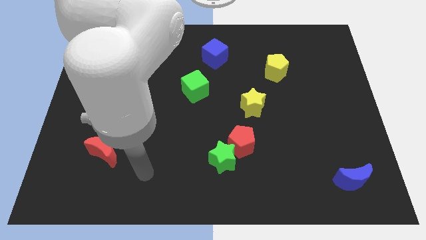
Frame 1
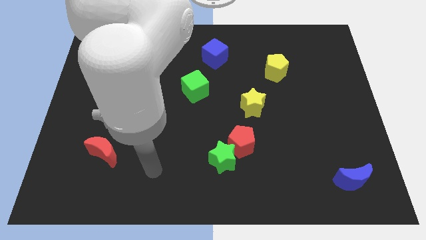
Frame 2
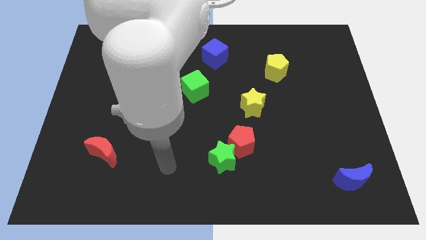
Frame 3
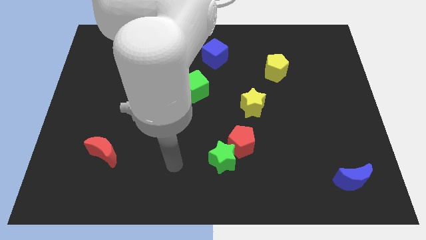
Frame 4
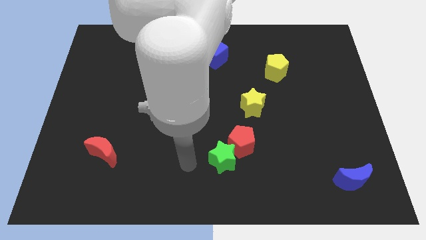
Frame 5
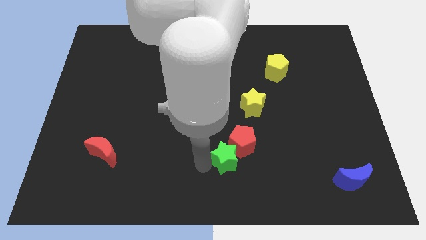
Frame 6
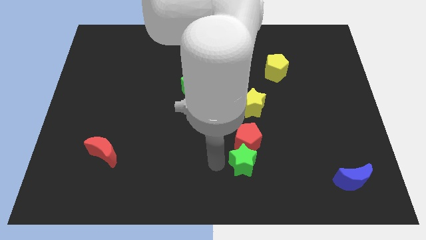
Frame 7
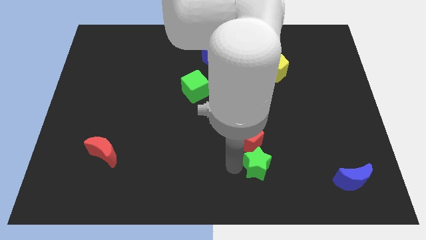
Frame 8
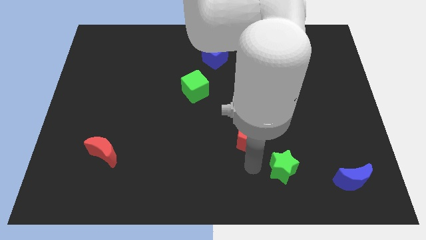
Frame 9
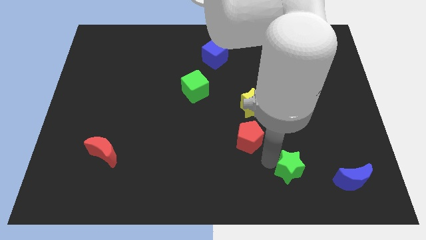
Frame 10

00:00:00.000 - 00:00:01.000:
separate the red pentagon from the green star

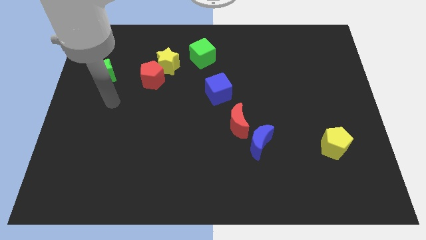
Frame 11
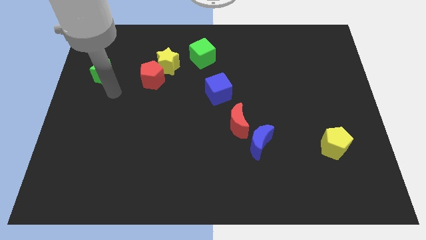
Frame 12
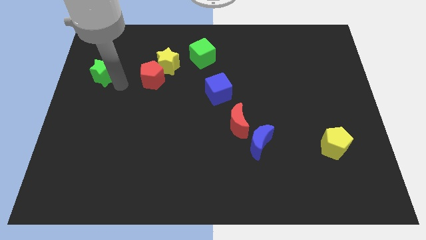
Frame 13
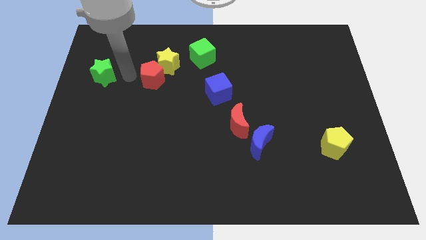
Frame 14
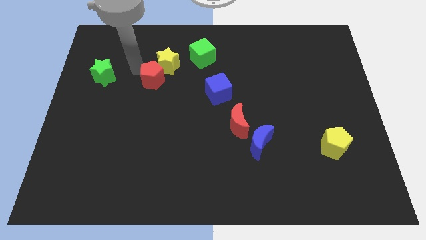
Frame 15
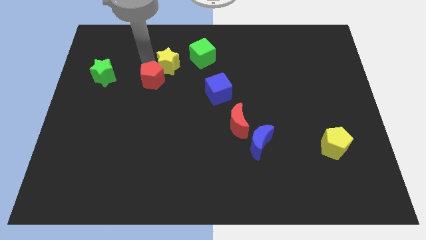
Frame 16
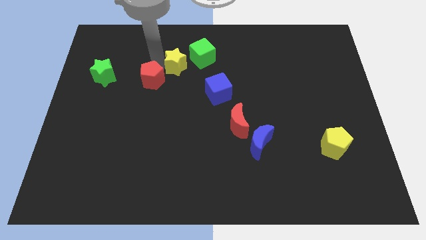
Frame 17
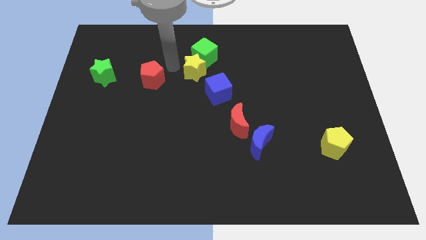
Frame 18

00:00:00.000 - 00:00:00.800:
pull the red pentagon apart from the yellow star

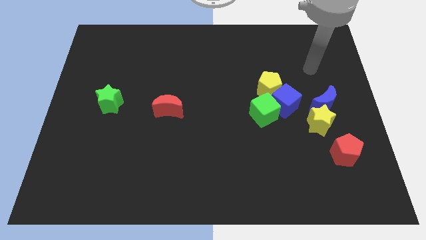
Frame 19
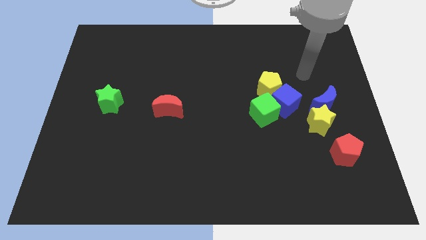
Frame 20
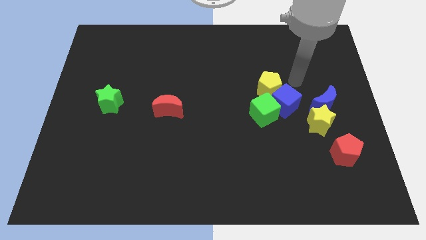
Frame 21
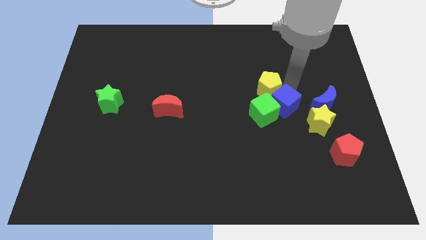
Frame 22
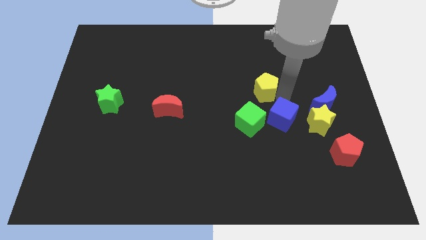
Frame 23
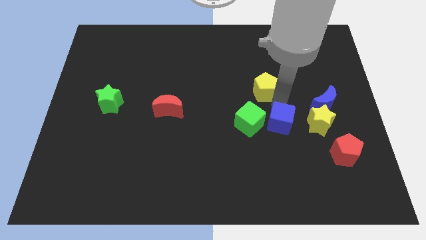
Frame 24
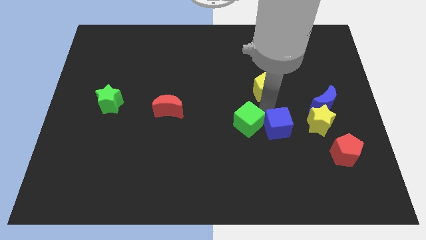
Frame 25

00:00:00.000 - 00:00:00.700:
pull the yellow pentagon apart from the blue cube and green cube

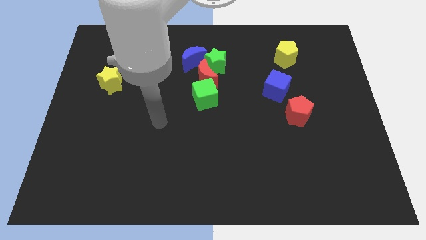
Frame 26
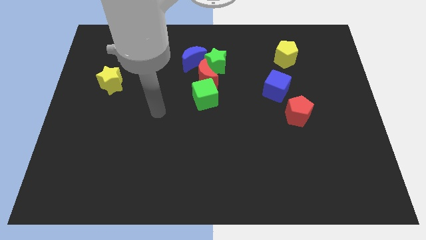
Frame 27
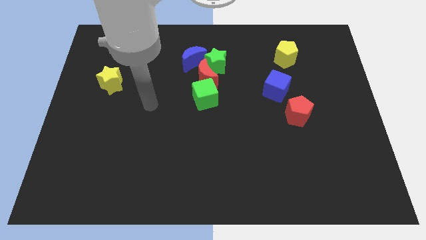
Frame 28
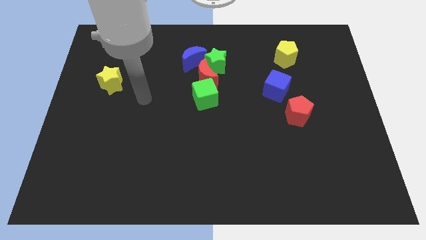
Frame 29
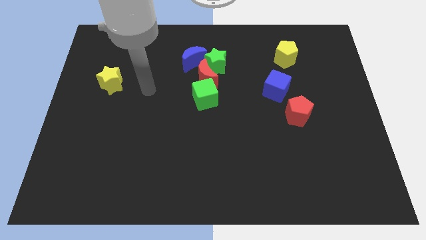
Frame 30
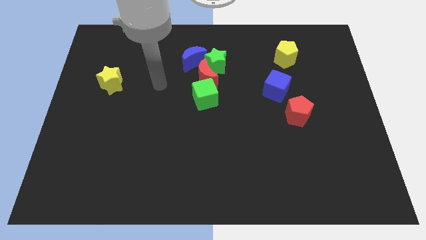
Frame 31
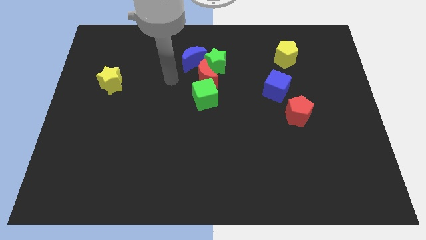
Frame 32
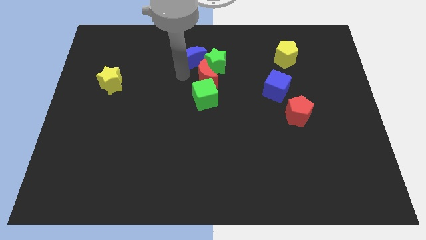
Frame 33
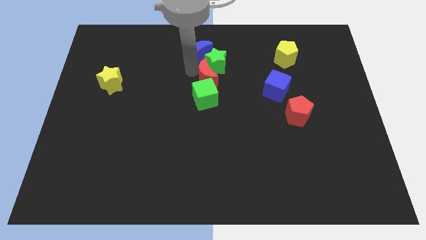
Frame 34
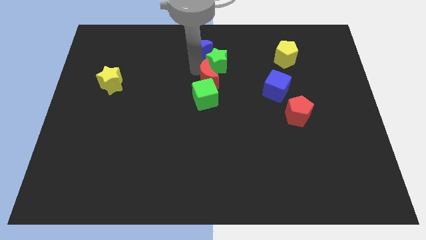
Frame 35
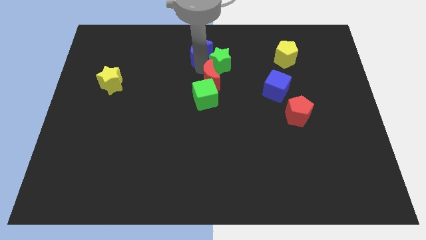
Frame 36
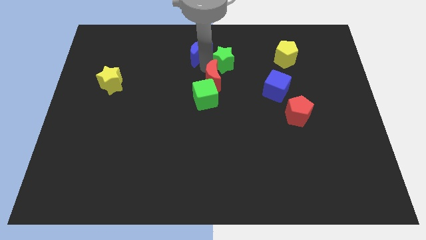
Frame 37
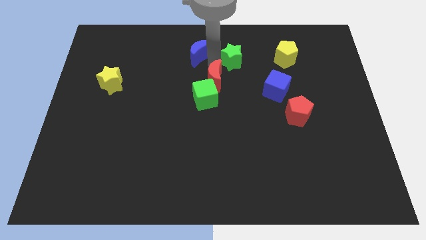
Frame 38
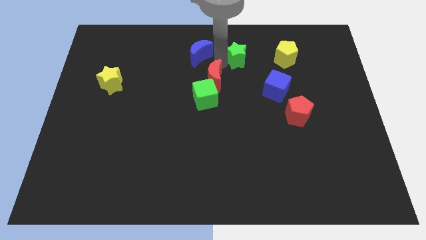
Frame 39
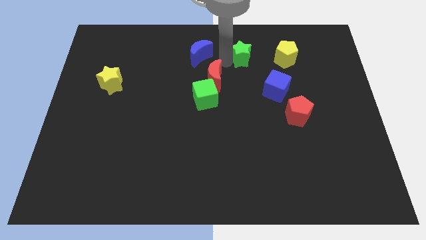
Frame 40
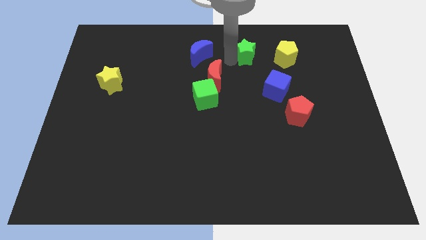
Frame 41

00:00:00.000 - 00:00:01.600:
separate the green star from the red moon and blue moon

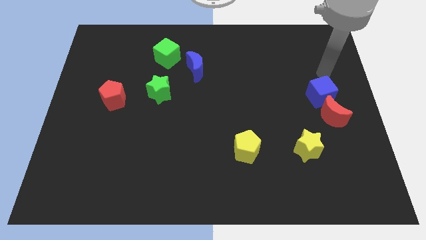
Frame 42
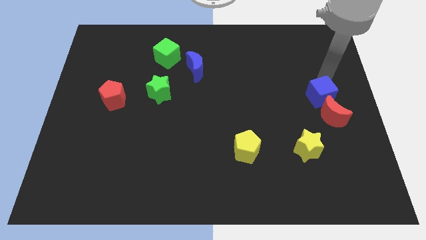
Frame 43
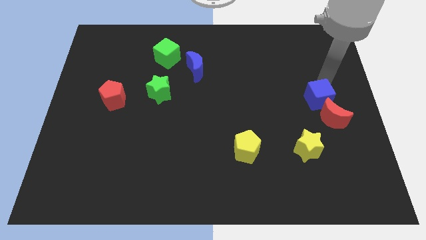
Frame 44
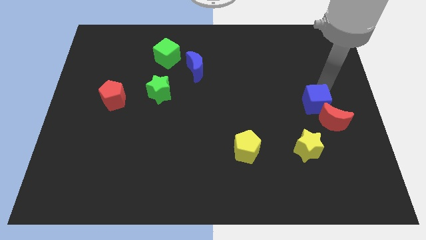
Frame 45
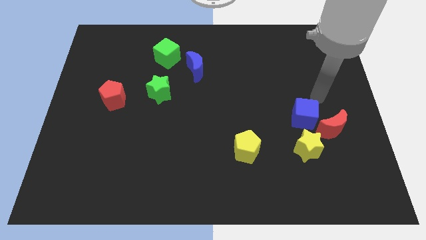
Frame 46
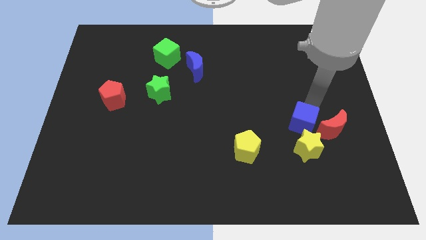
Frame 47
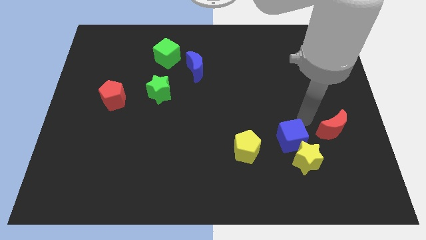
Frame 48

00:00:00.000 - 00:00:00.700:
pull the red moon apart from the blue cube

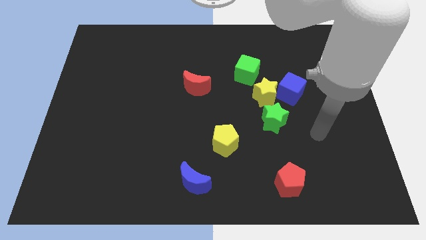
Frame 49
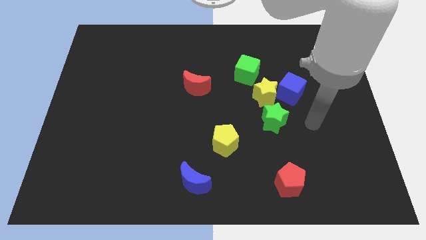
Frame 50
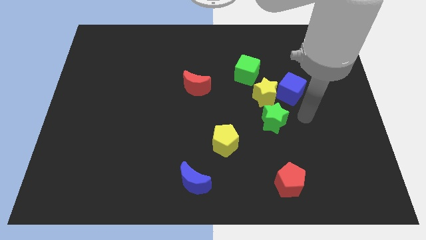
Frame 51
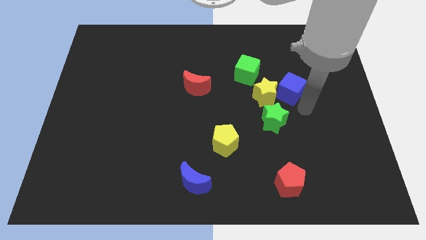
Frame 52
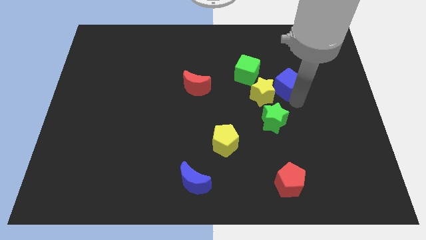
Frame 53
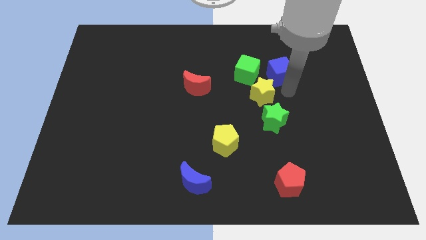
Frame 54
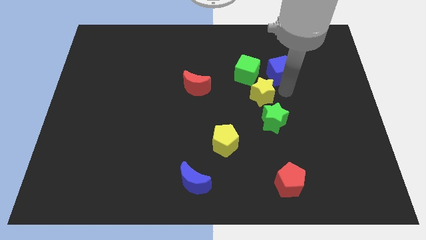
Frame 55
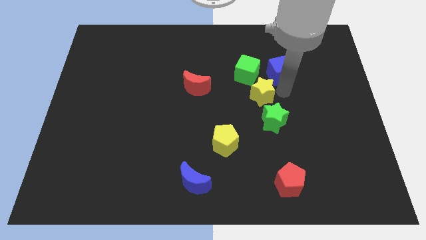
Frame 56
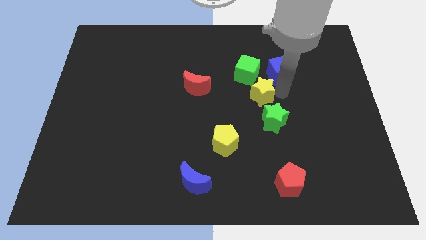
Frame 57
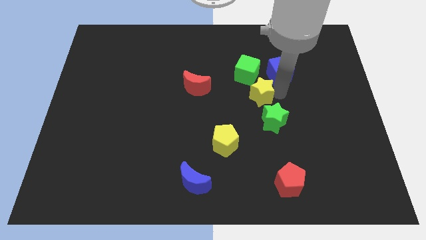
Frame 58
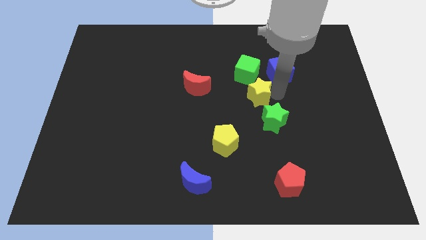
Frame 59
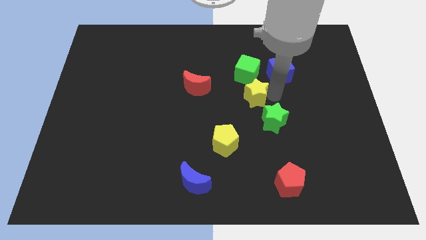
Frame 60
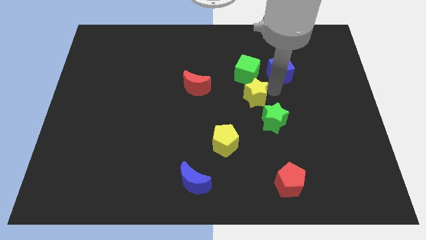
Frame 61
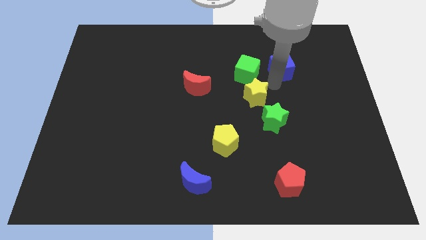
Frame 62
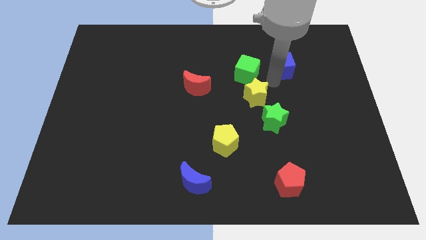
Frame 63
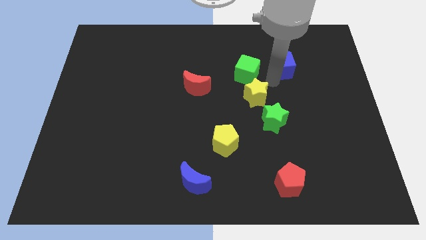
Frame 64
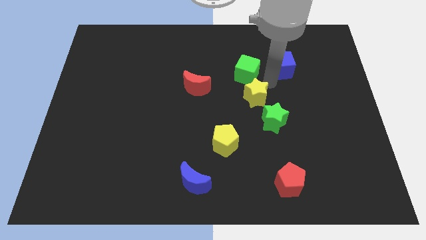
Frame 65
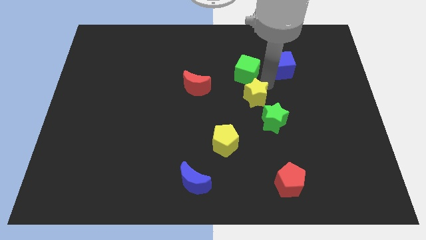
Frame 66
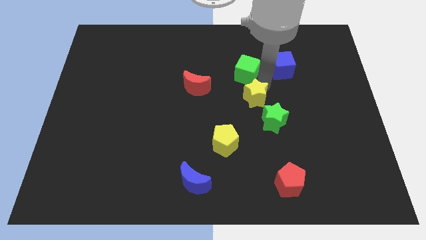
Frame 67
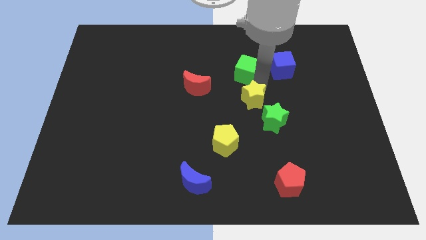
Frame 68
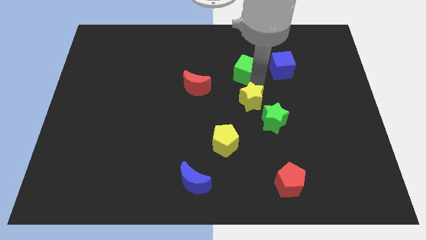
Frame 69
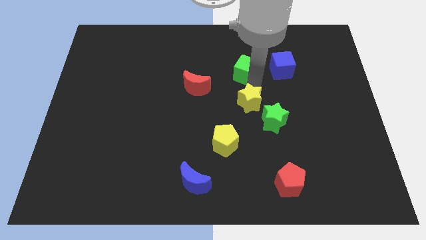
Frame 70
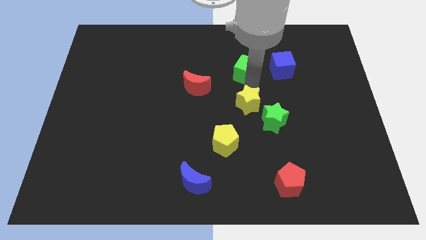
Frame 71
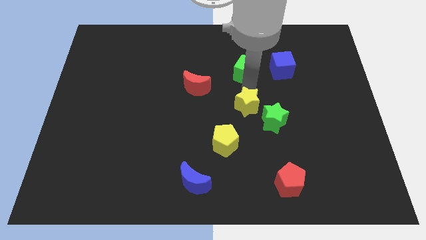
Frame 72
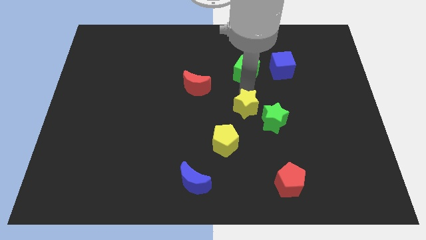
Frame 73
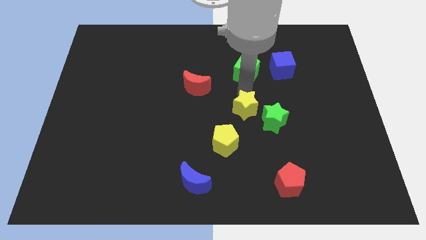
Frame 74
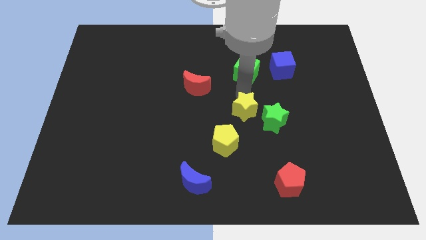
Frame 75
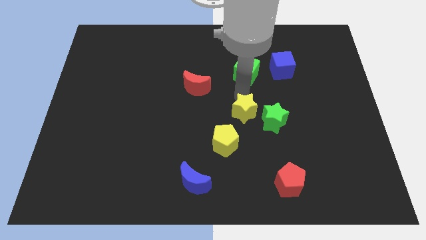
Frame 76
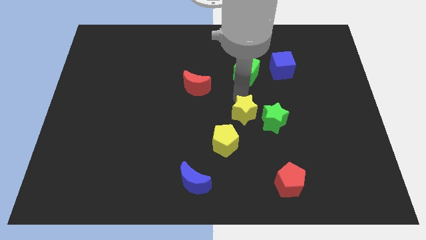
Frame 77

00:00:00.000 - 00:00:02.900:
separate the yellow star from the group

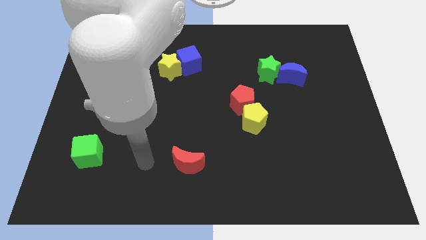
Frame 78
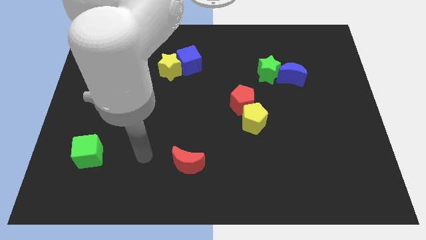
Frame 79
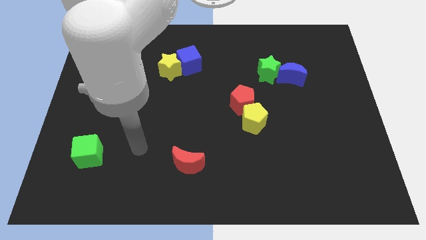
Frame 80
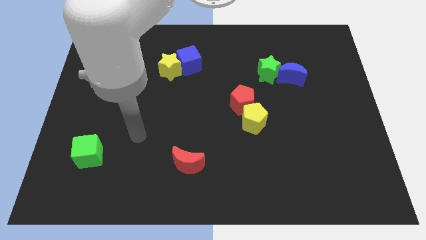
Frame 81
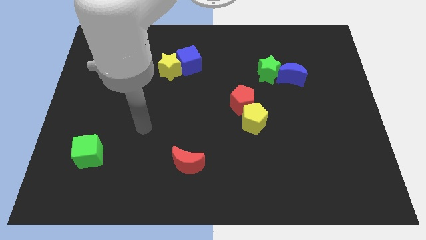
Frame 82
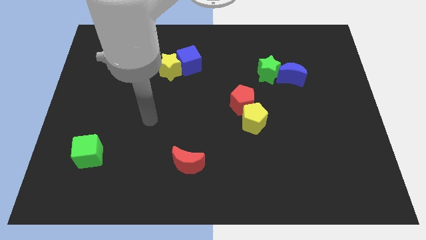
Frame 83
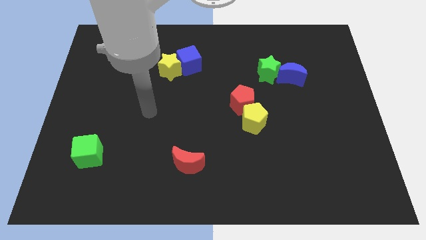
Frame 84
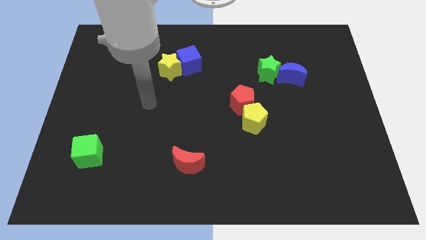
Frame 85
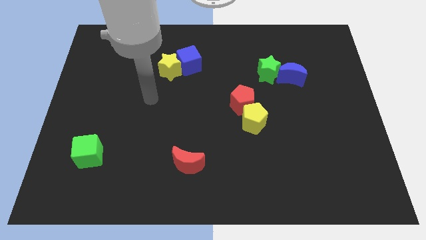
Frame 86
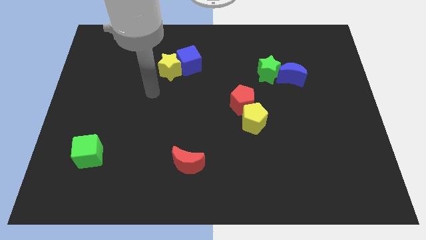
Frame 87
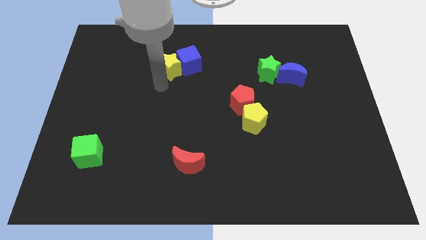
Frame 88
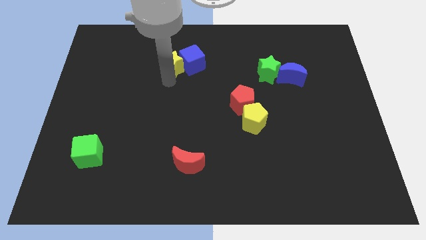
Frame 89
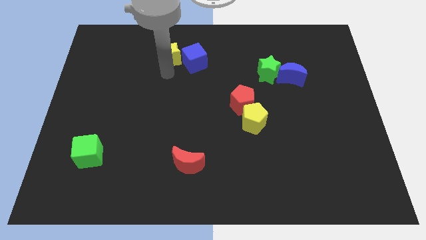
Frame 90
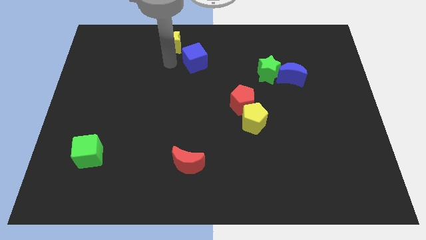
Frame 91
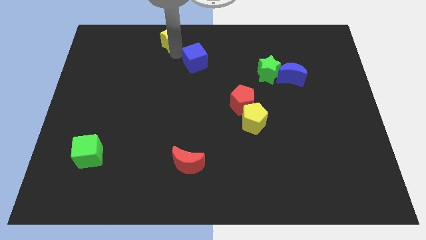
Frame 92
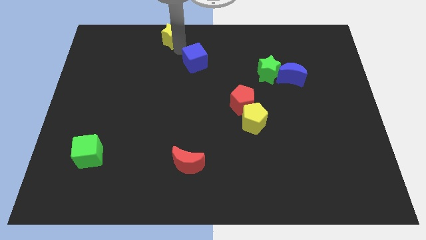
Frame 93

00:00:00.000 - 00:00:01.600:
separate the blue cube from the yellow star

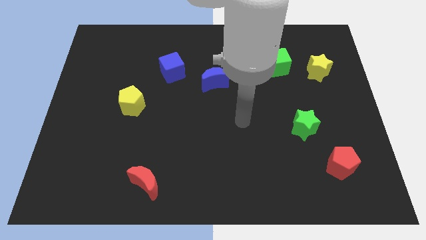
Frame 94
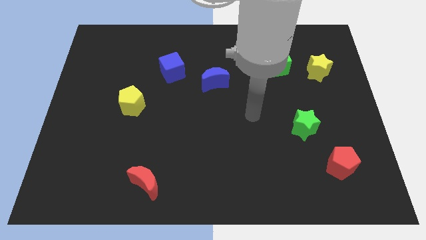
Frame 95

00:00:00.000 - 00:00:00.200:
pull the green cube apart from the yellow star
